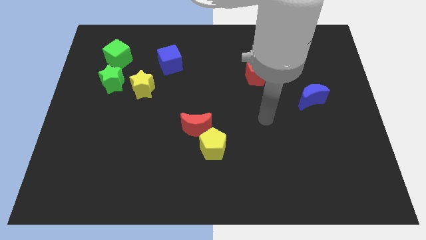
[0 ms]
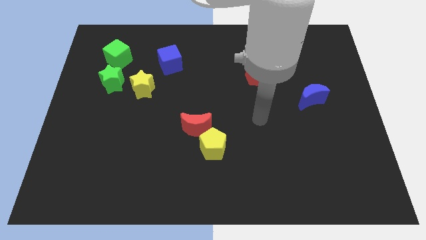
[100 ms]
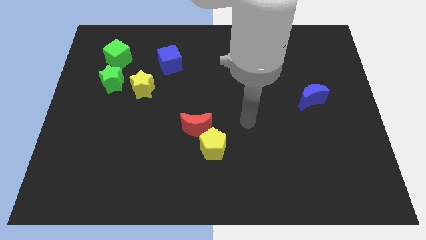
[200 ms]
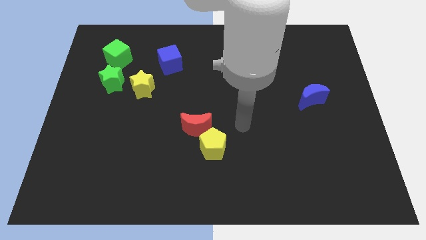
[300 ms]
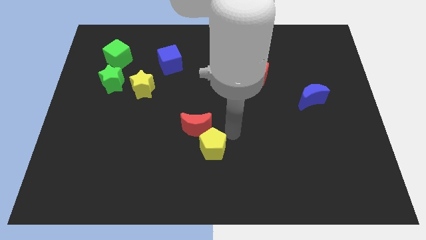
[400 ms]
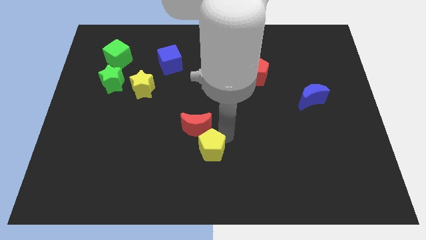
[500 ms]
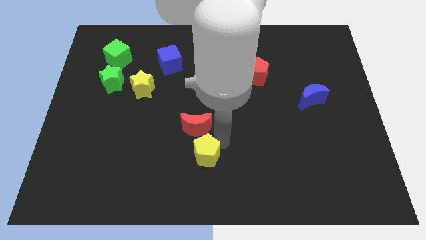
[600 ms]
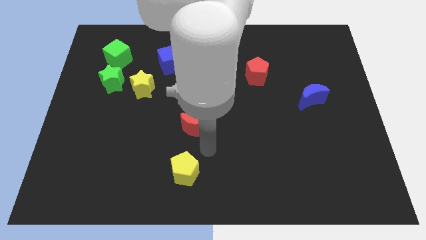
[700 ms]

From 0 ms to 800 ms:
separate the red moon from the yellow pentagon

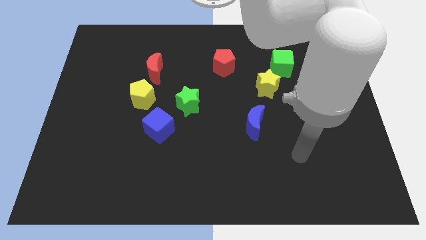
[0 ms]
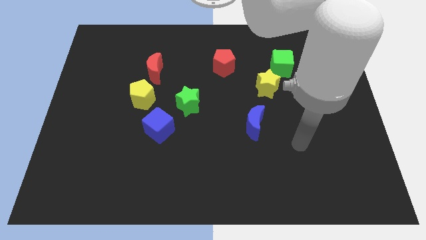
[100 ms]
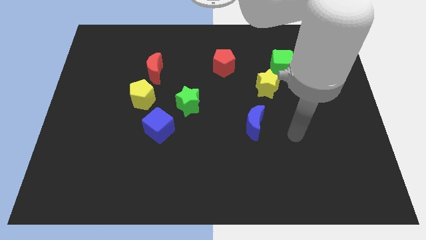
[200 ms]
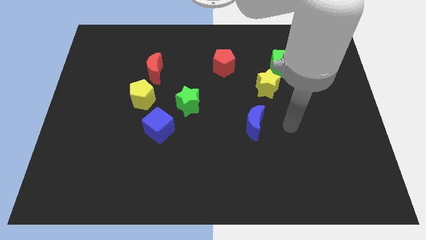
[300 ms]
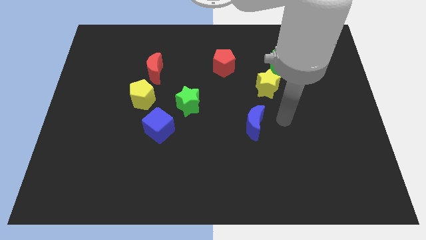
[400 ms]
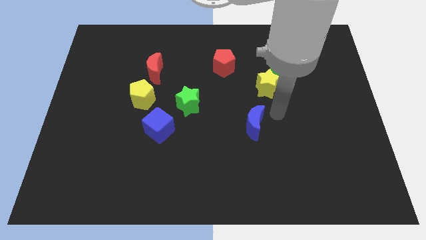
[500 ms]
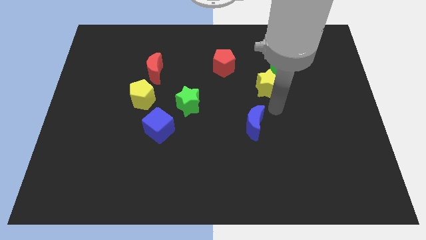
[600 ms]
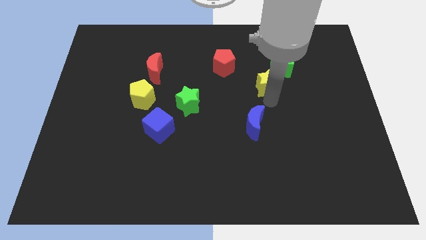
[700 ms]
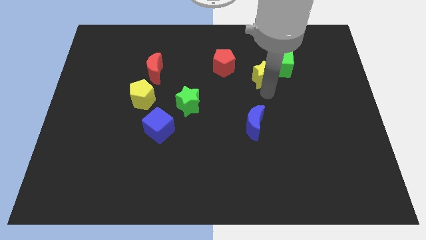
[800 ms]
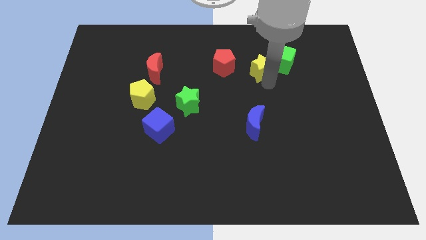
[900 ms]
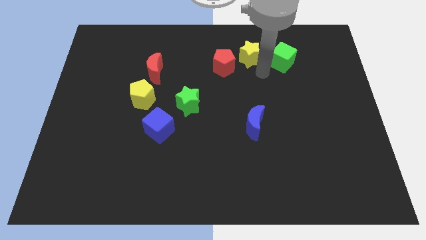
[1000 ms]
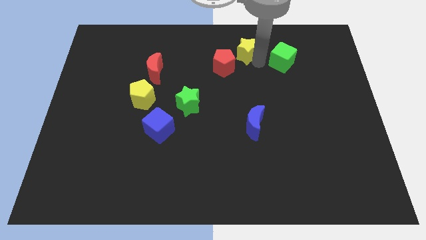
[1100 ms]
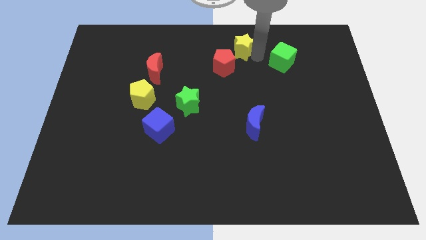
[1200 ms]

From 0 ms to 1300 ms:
separate the green cube from the yellow star

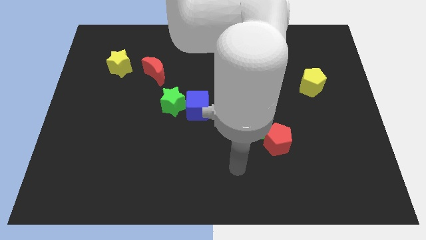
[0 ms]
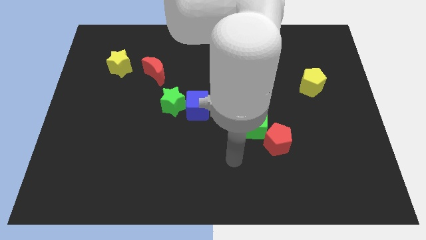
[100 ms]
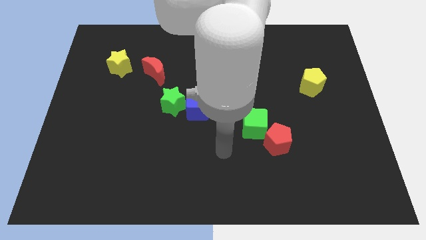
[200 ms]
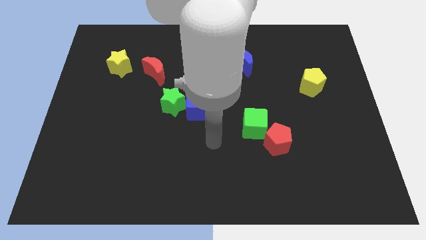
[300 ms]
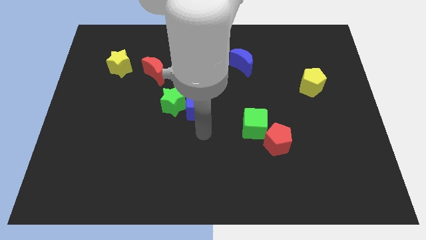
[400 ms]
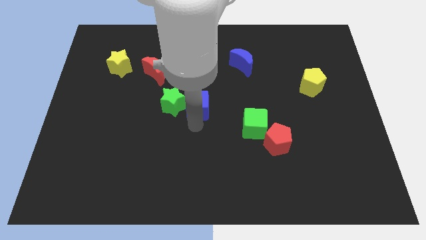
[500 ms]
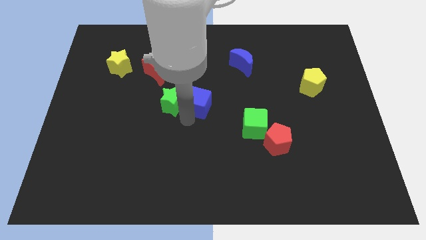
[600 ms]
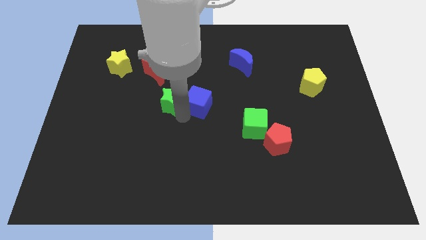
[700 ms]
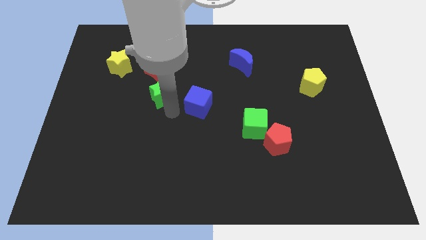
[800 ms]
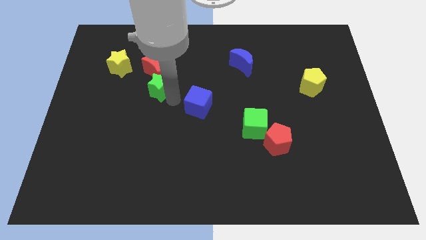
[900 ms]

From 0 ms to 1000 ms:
move the blue cube away from the green star

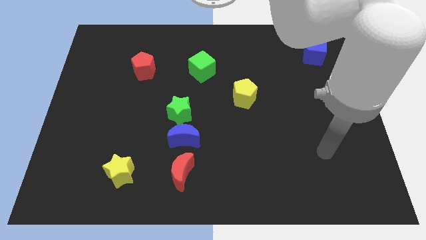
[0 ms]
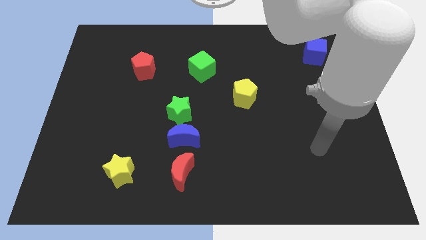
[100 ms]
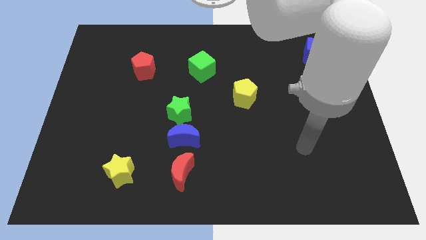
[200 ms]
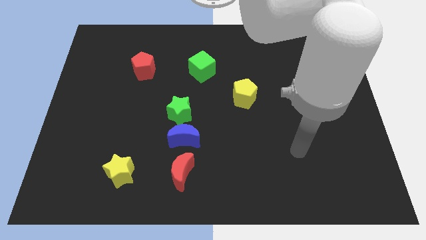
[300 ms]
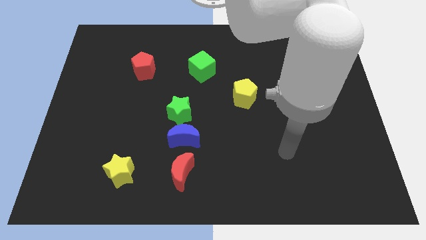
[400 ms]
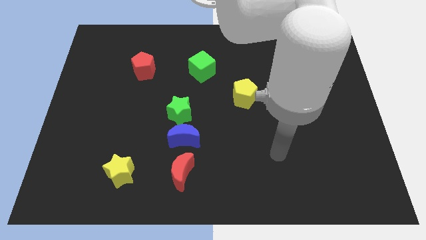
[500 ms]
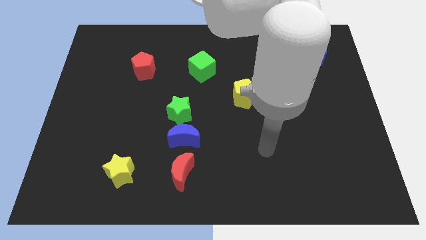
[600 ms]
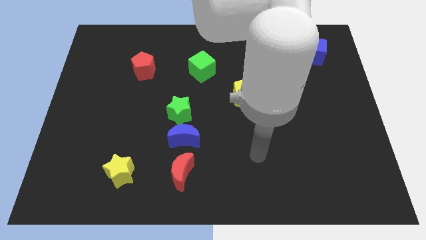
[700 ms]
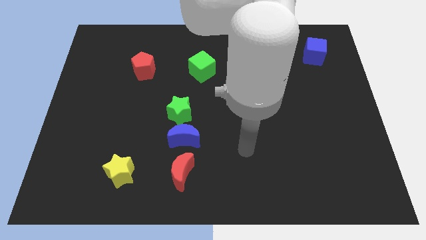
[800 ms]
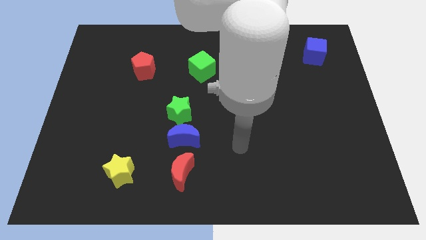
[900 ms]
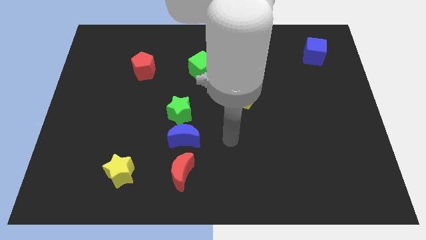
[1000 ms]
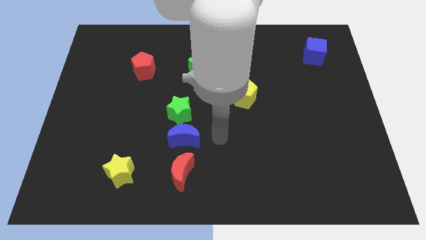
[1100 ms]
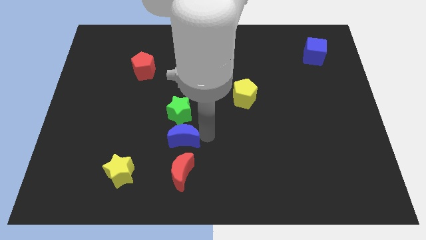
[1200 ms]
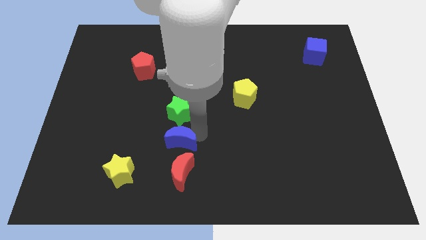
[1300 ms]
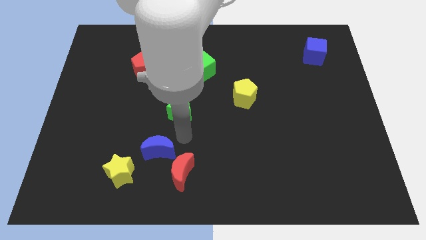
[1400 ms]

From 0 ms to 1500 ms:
move the green star away from the blue moon

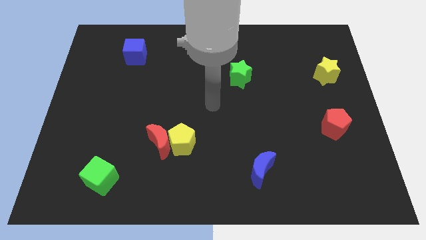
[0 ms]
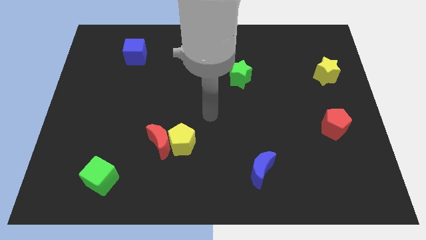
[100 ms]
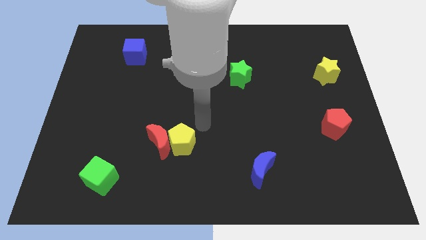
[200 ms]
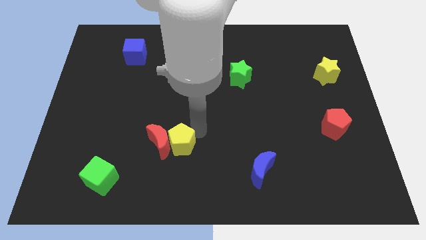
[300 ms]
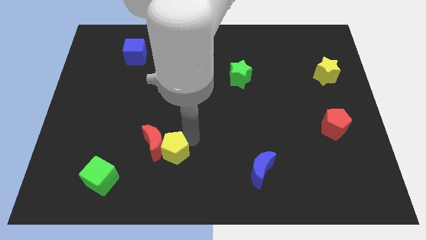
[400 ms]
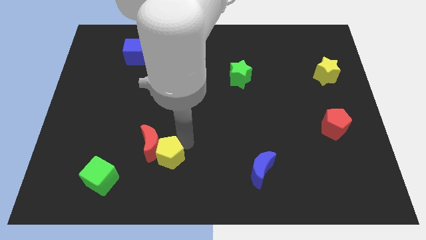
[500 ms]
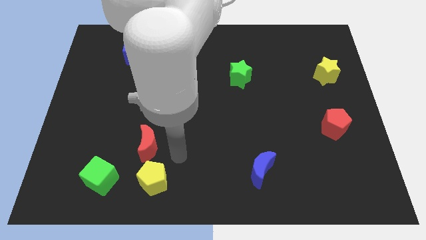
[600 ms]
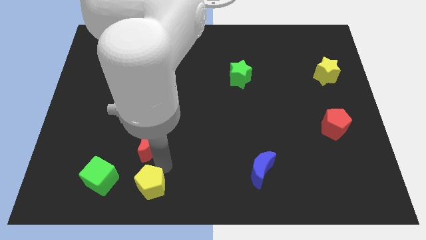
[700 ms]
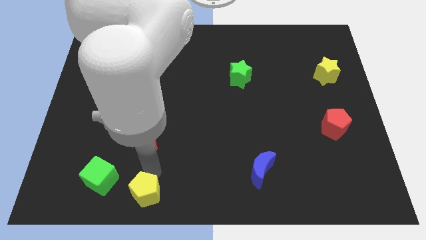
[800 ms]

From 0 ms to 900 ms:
move the red moon away from the yellow pentagon

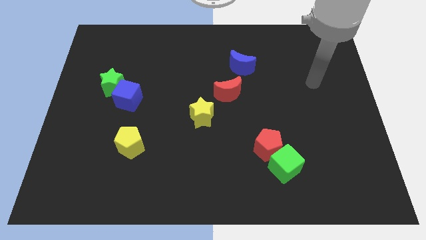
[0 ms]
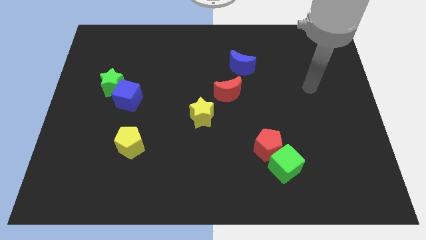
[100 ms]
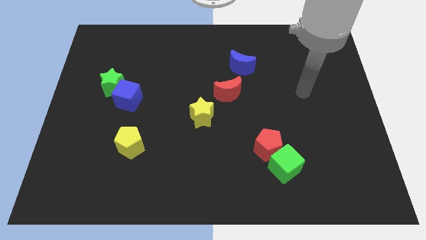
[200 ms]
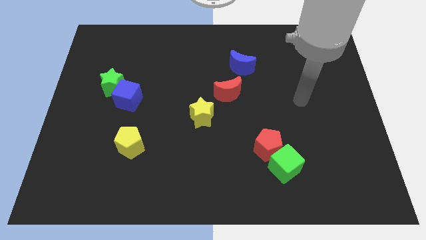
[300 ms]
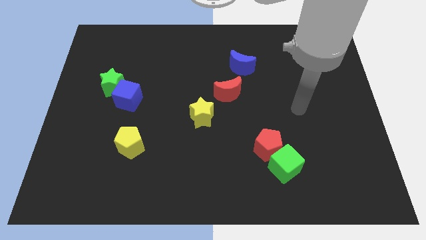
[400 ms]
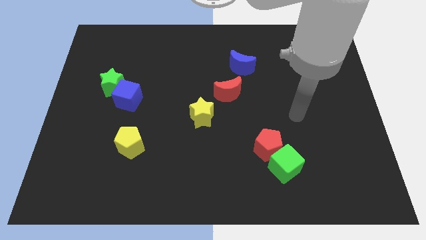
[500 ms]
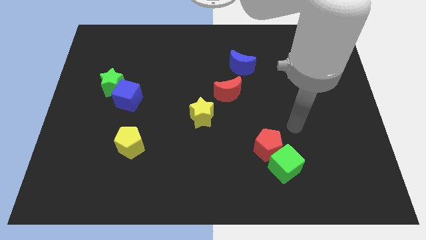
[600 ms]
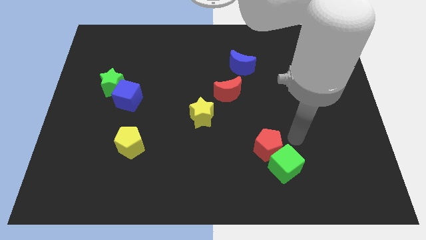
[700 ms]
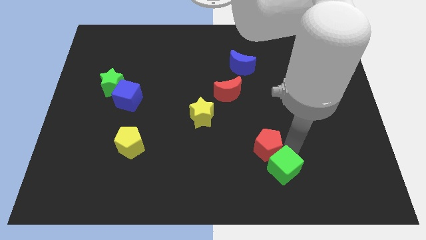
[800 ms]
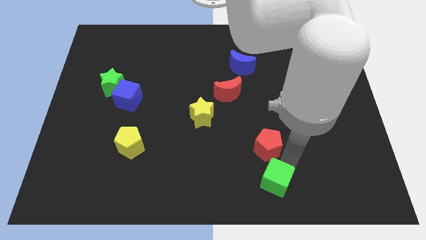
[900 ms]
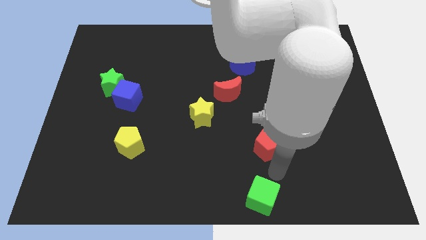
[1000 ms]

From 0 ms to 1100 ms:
move the red pentagon away from the green cube

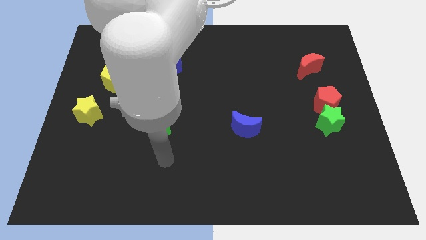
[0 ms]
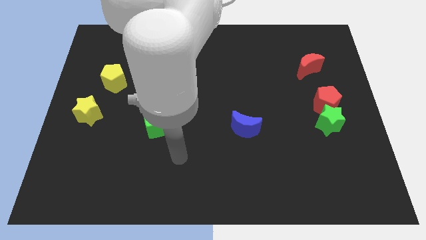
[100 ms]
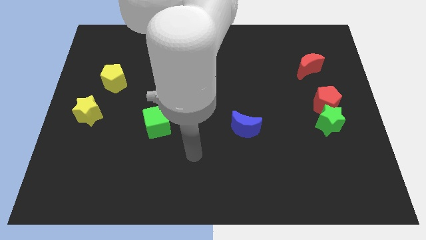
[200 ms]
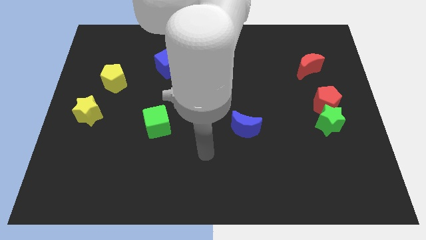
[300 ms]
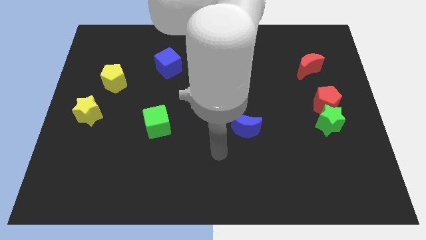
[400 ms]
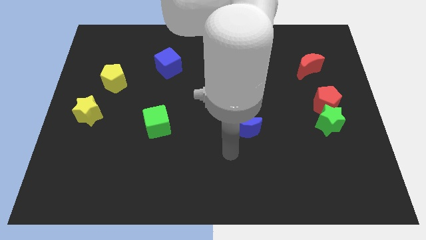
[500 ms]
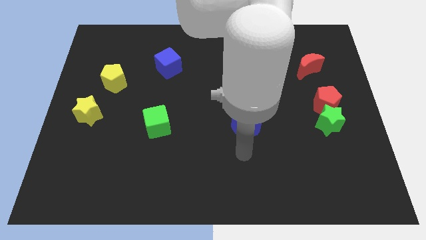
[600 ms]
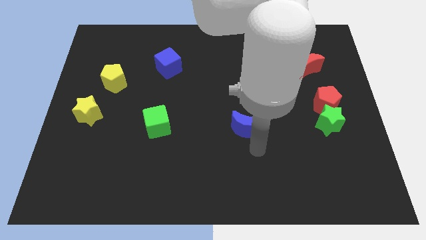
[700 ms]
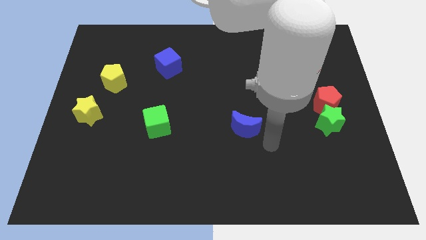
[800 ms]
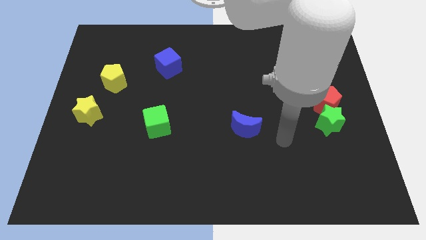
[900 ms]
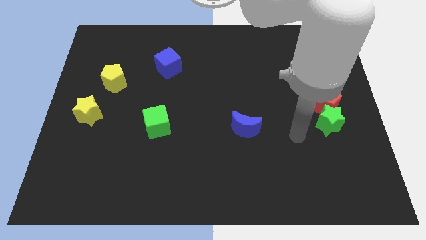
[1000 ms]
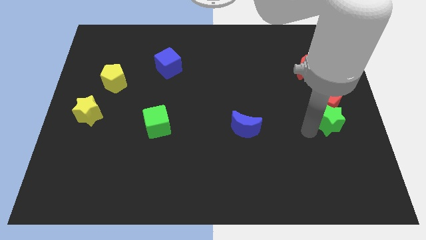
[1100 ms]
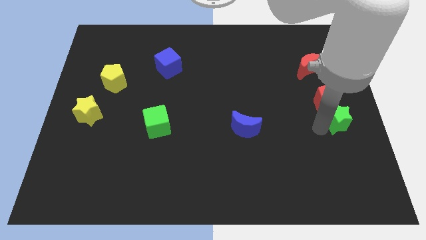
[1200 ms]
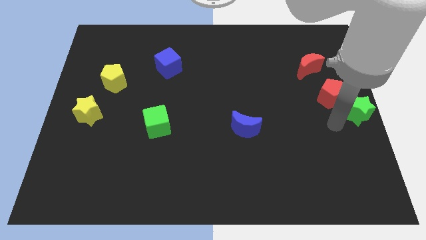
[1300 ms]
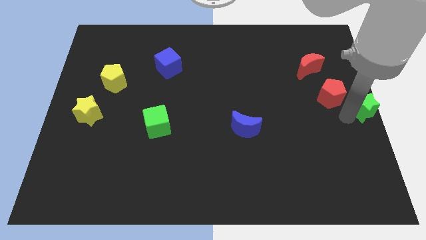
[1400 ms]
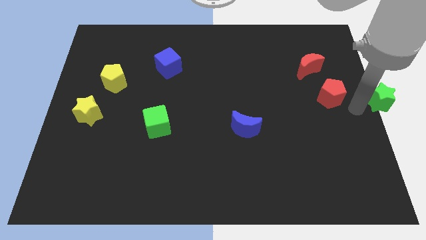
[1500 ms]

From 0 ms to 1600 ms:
pull the red pentagon apart from the green star

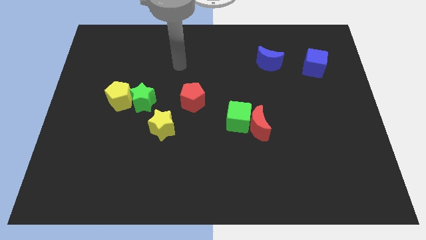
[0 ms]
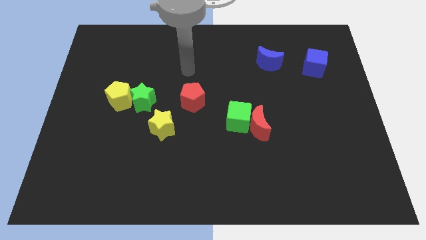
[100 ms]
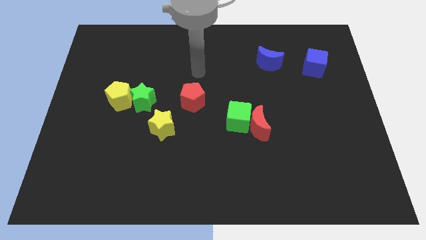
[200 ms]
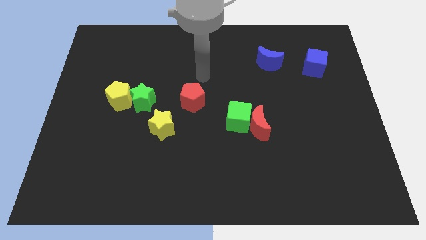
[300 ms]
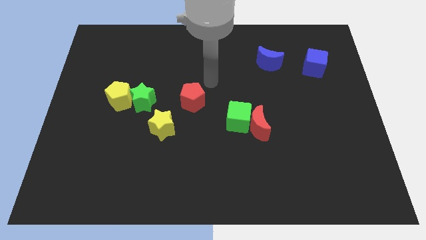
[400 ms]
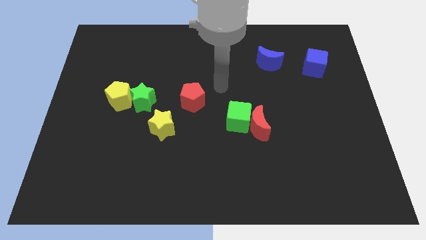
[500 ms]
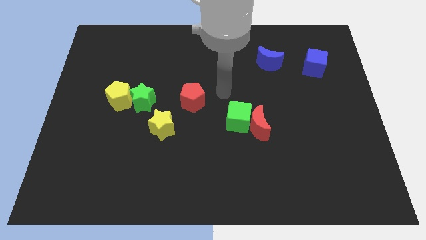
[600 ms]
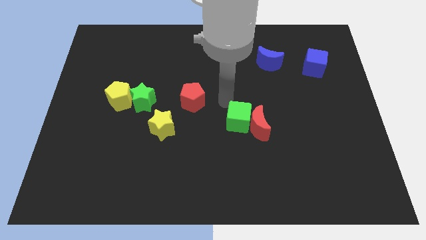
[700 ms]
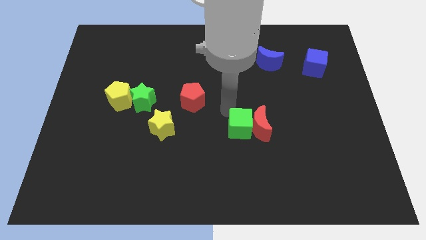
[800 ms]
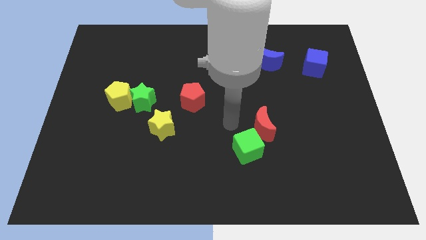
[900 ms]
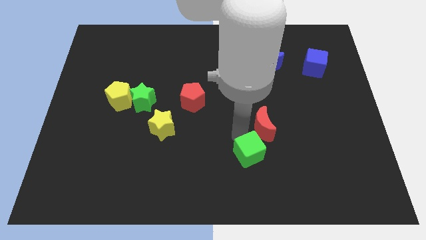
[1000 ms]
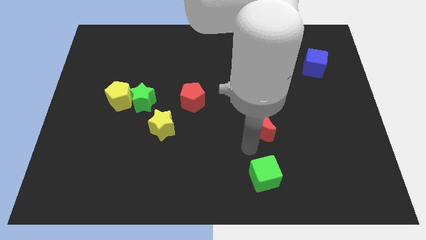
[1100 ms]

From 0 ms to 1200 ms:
move the red moon away from the green cube
